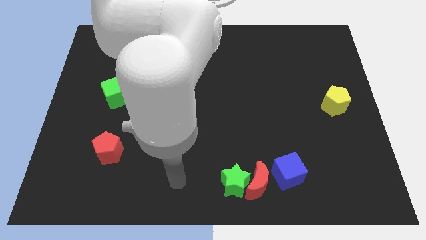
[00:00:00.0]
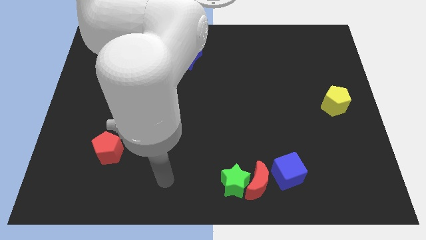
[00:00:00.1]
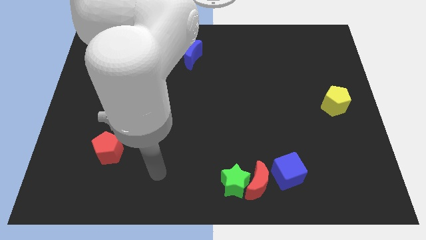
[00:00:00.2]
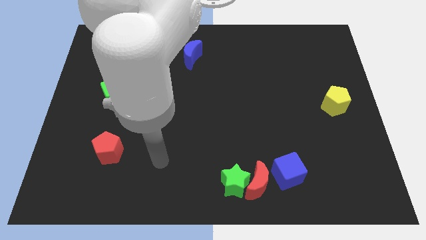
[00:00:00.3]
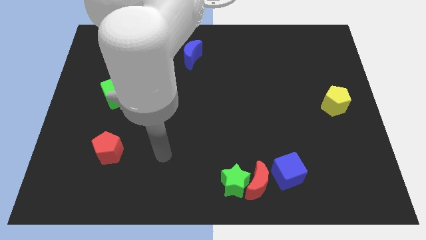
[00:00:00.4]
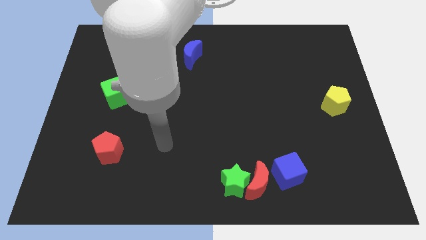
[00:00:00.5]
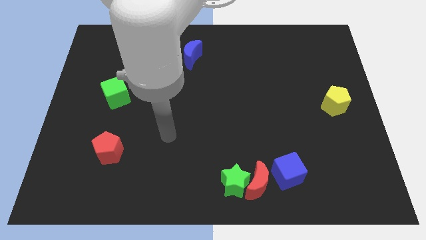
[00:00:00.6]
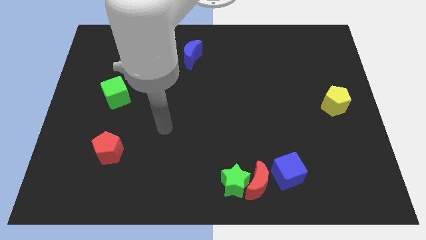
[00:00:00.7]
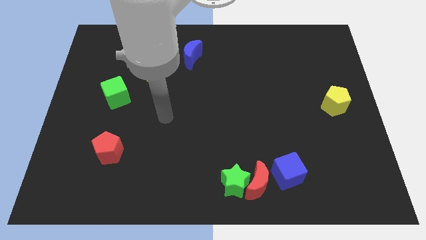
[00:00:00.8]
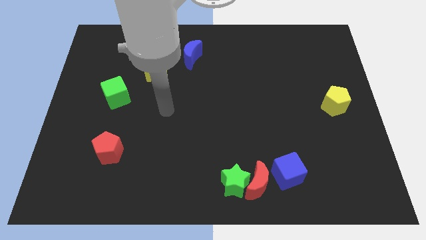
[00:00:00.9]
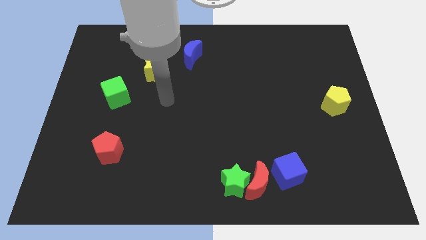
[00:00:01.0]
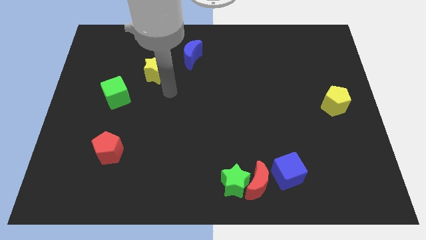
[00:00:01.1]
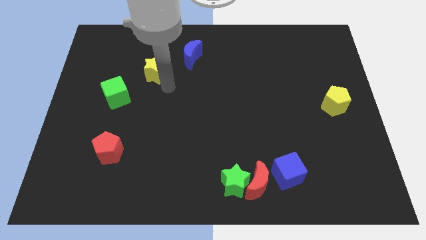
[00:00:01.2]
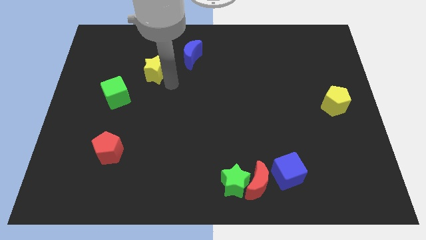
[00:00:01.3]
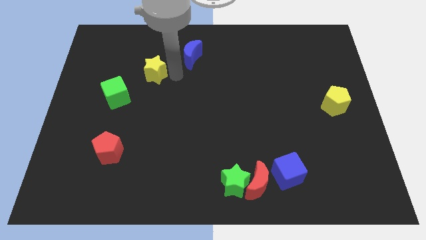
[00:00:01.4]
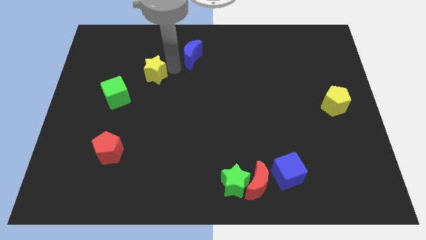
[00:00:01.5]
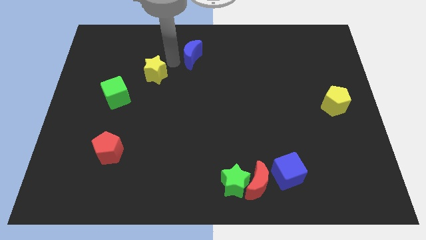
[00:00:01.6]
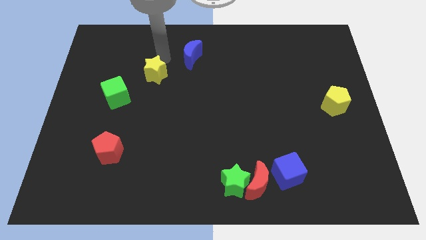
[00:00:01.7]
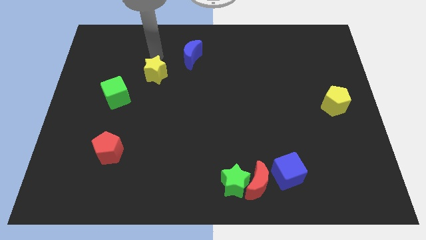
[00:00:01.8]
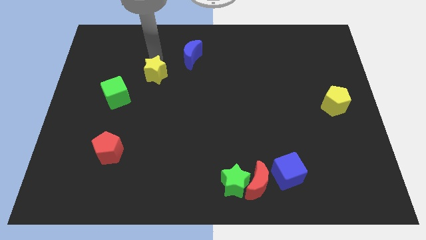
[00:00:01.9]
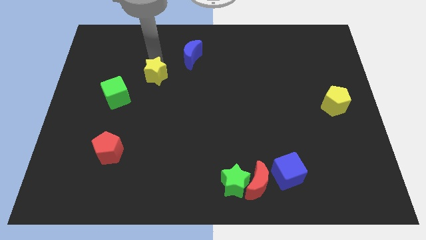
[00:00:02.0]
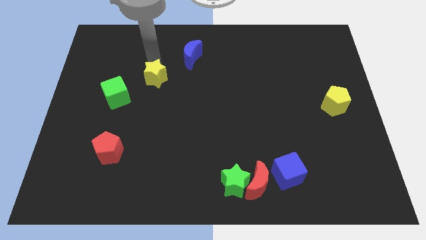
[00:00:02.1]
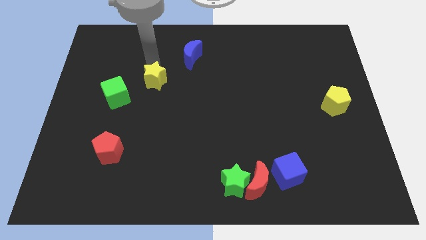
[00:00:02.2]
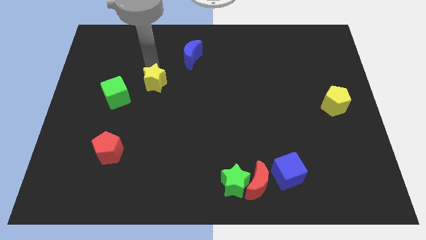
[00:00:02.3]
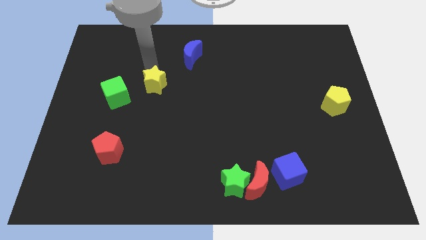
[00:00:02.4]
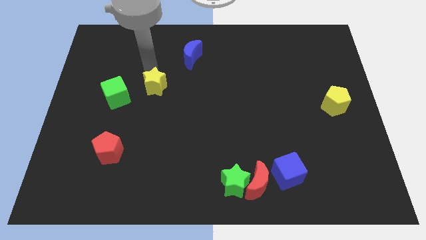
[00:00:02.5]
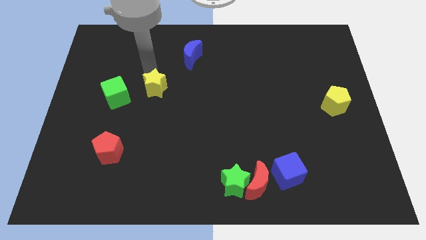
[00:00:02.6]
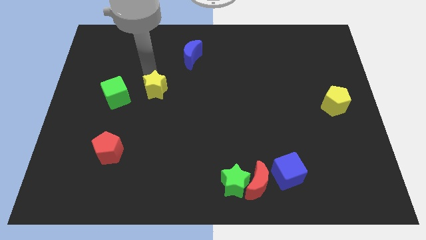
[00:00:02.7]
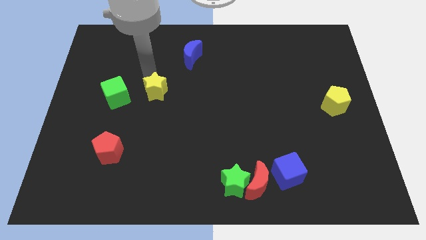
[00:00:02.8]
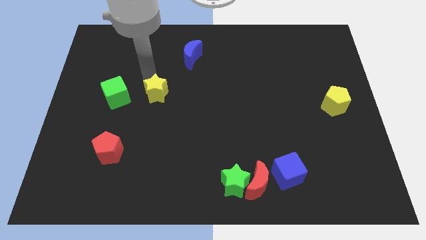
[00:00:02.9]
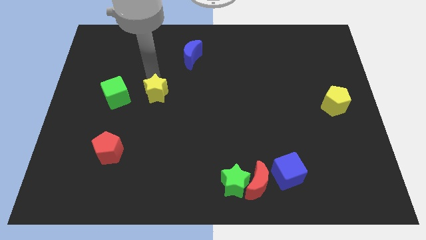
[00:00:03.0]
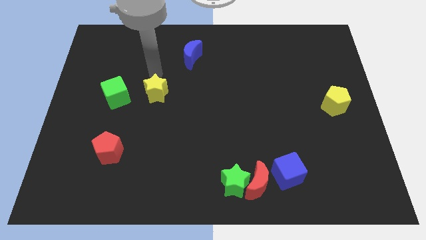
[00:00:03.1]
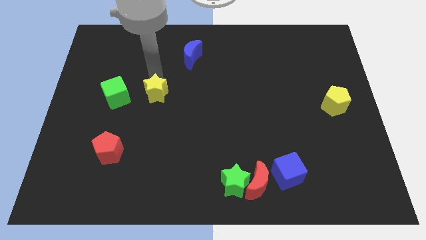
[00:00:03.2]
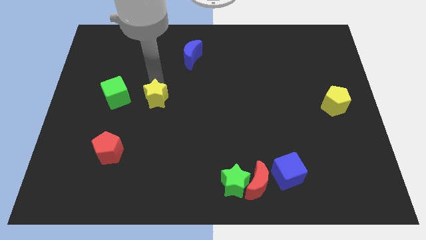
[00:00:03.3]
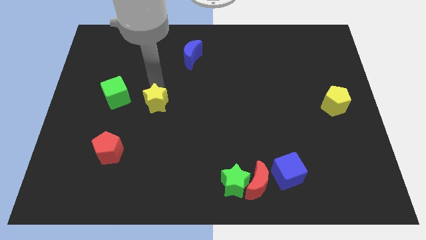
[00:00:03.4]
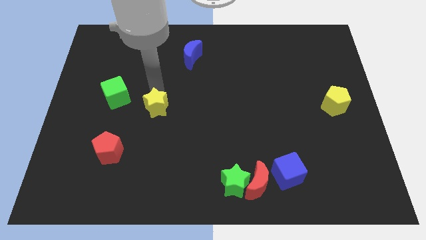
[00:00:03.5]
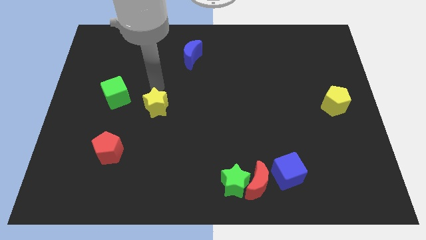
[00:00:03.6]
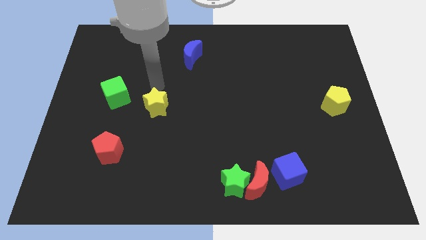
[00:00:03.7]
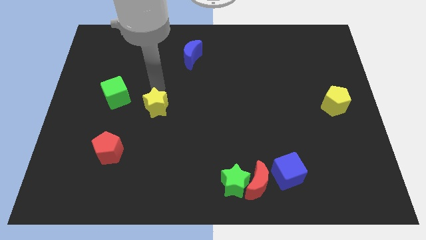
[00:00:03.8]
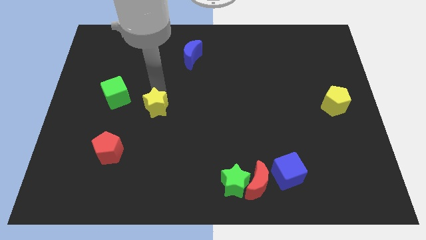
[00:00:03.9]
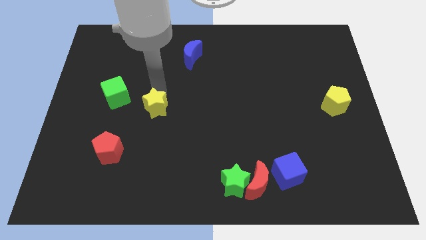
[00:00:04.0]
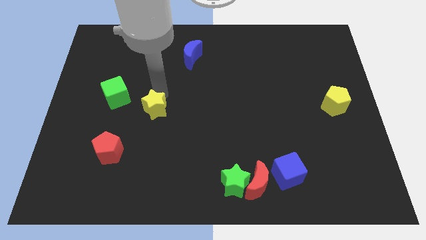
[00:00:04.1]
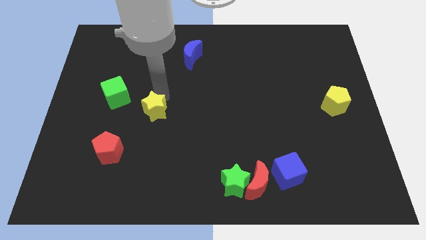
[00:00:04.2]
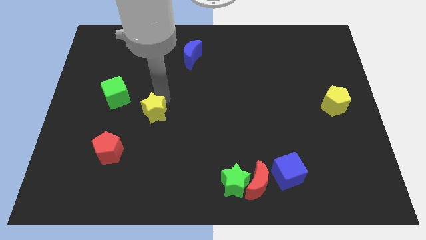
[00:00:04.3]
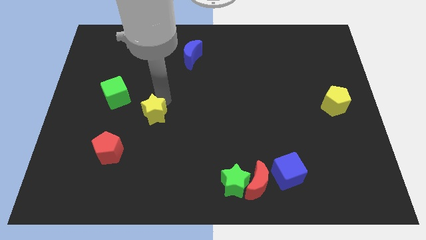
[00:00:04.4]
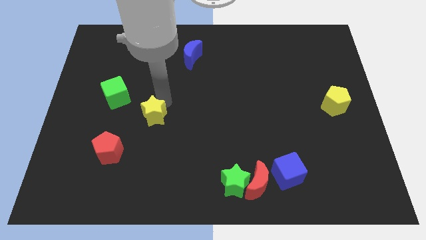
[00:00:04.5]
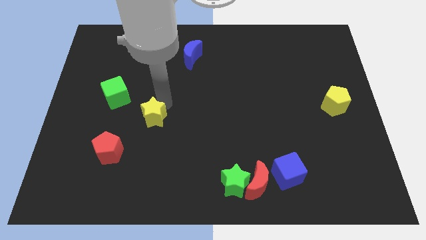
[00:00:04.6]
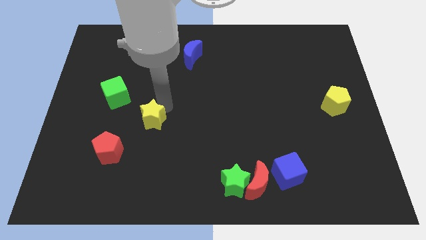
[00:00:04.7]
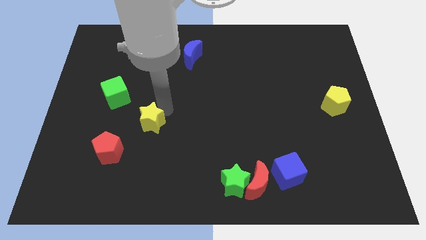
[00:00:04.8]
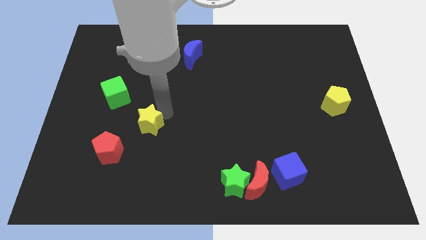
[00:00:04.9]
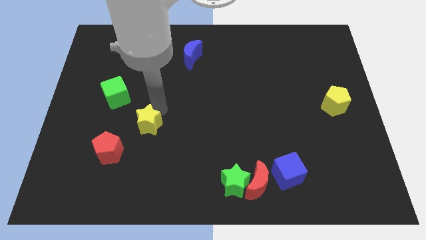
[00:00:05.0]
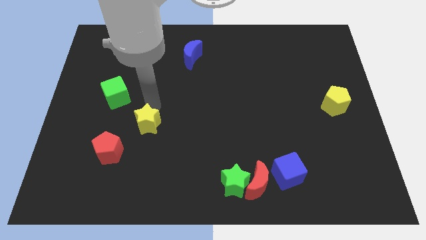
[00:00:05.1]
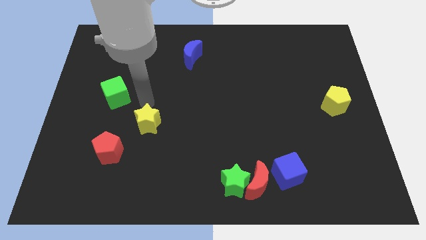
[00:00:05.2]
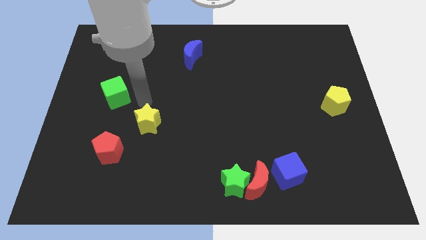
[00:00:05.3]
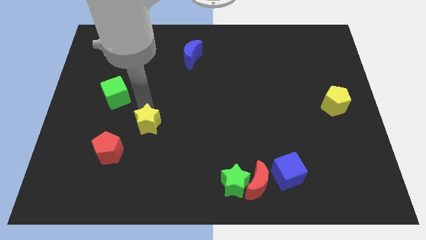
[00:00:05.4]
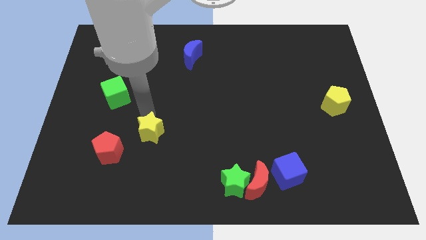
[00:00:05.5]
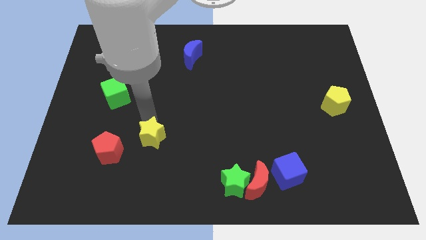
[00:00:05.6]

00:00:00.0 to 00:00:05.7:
put the yellow star to the right side of the red pentagon

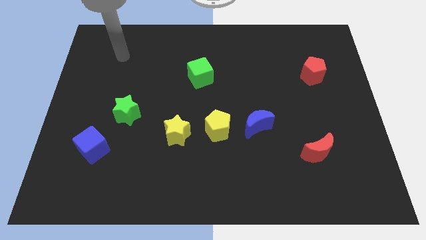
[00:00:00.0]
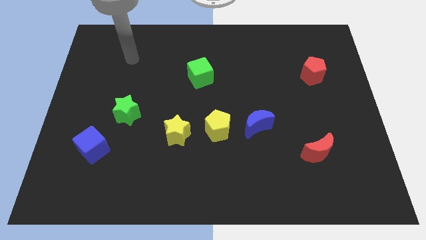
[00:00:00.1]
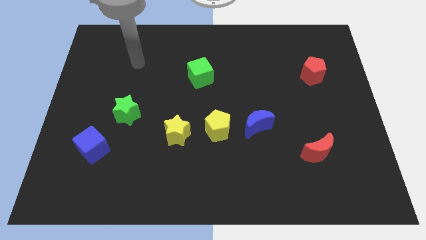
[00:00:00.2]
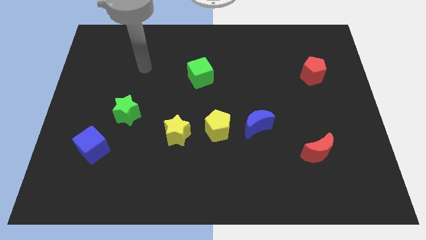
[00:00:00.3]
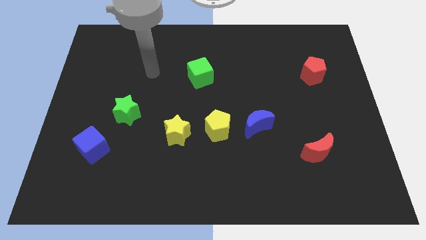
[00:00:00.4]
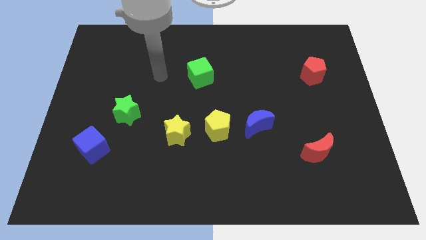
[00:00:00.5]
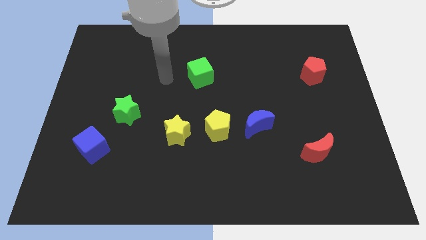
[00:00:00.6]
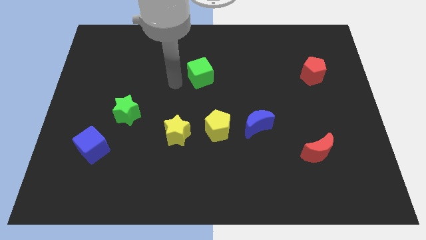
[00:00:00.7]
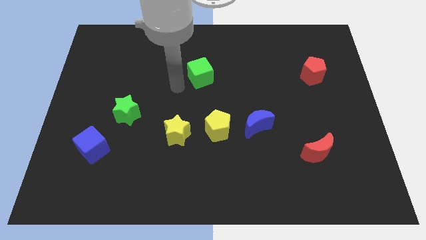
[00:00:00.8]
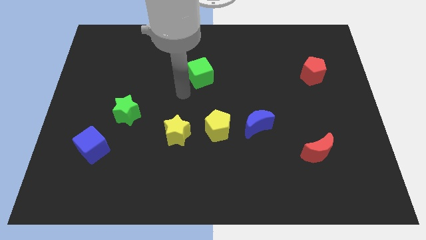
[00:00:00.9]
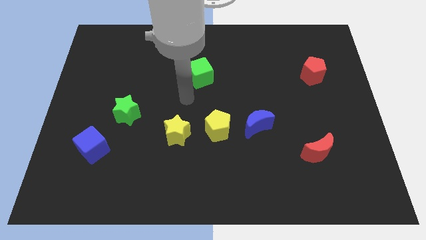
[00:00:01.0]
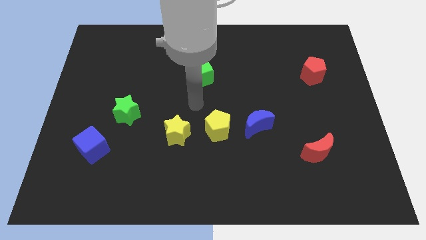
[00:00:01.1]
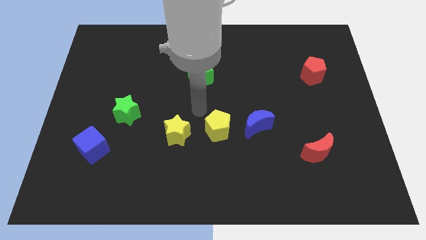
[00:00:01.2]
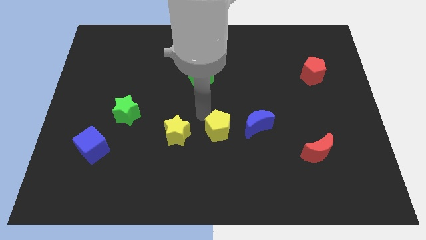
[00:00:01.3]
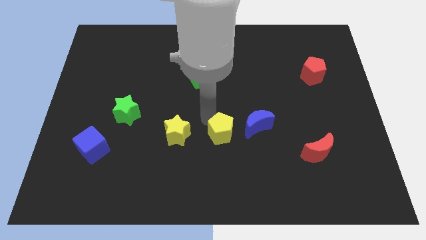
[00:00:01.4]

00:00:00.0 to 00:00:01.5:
move the yellow pentagon diagonally down and to the left of the blue moon

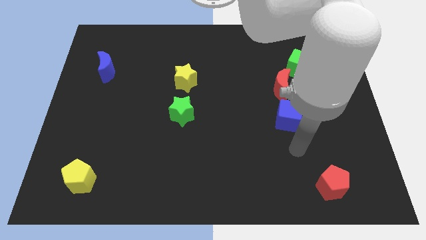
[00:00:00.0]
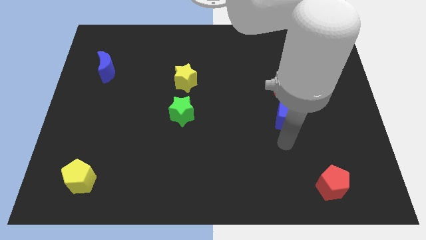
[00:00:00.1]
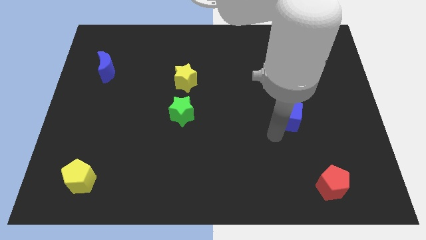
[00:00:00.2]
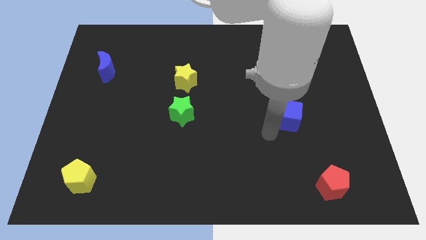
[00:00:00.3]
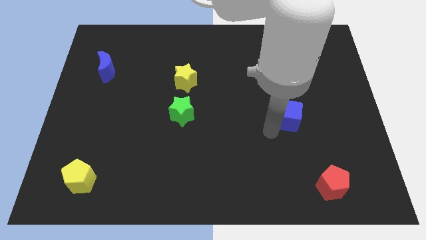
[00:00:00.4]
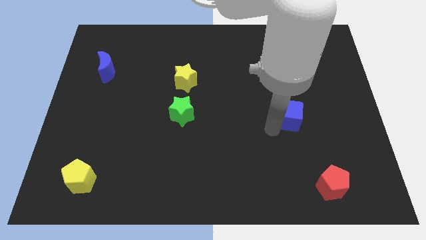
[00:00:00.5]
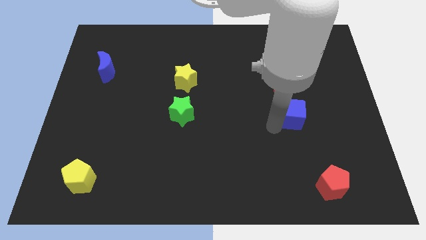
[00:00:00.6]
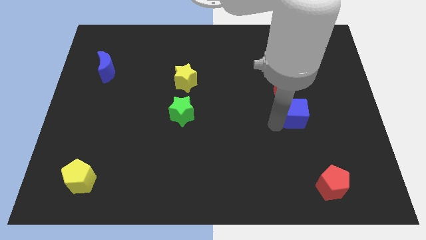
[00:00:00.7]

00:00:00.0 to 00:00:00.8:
move the blue cube to the bottom right of the red moon

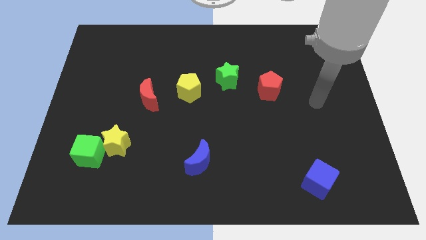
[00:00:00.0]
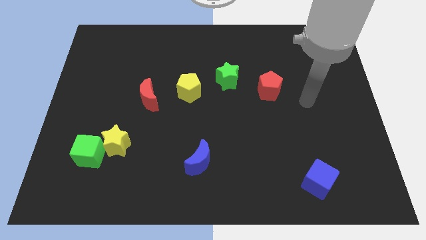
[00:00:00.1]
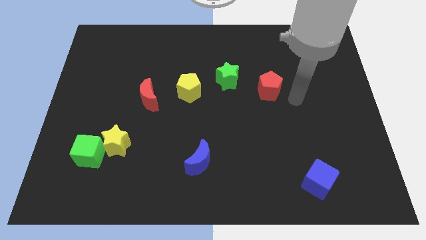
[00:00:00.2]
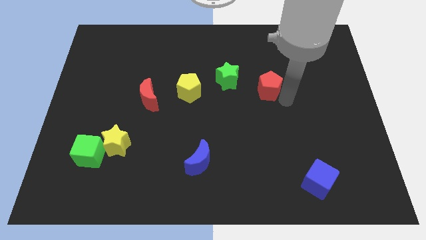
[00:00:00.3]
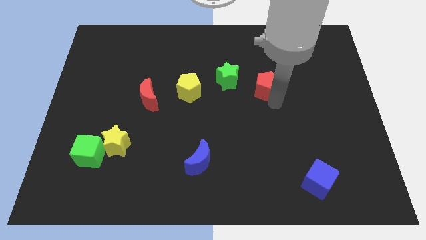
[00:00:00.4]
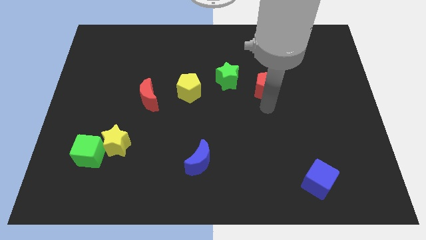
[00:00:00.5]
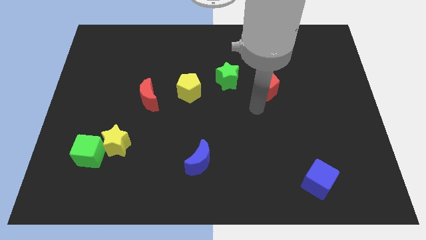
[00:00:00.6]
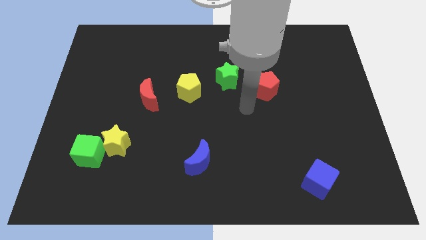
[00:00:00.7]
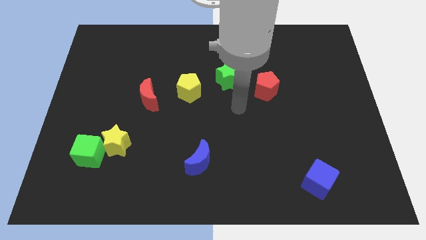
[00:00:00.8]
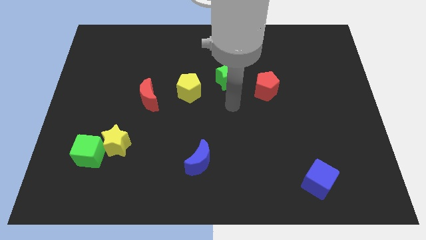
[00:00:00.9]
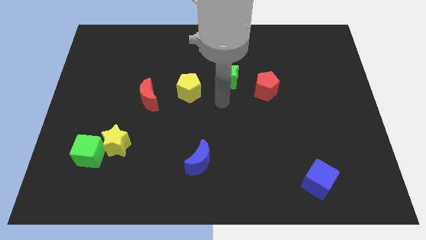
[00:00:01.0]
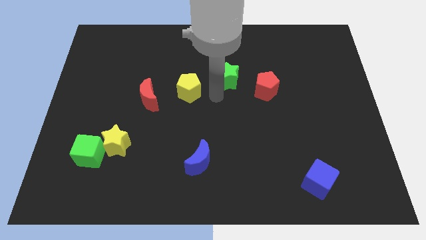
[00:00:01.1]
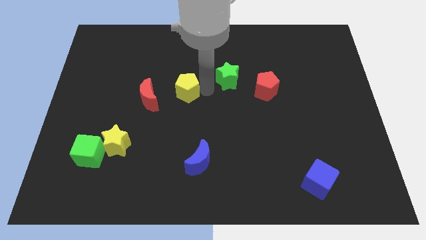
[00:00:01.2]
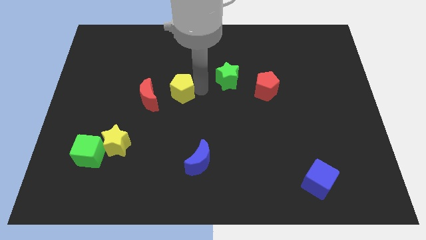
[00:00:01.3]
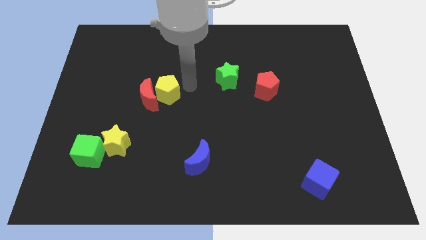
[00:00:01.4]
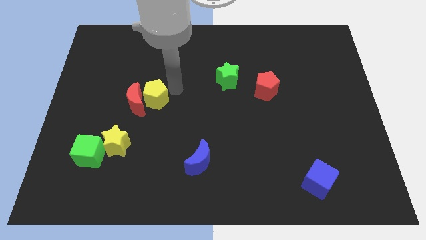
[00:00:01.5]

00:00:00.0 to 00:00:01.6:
put the red moon to the top of the yellow star
